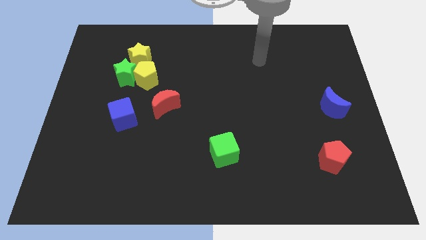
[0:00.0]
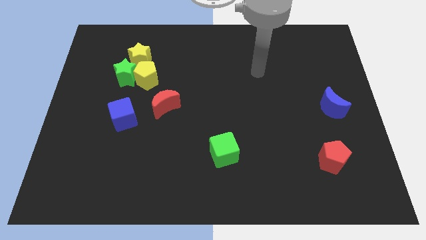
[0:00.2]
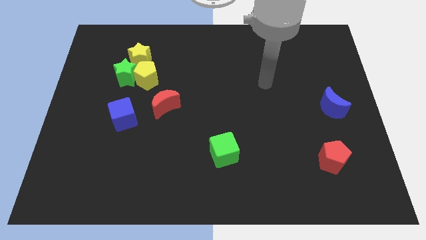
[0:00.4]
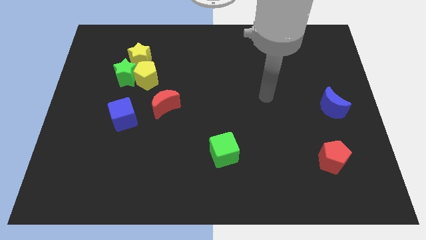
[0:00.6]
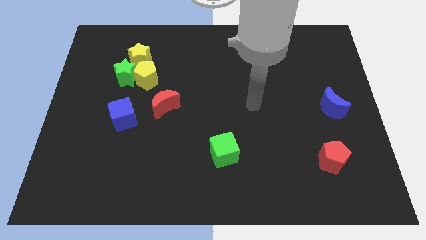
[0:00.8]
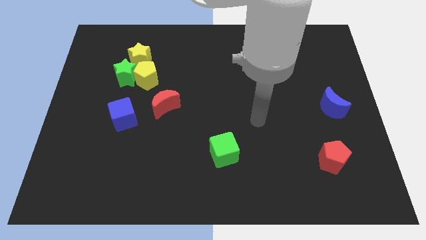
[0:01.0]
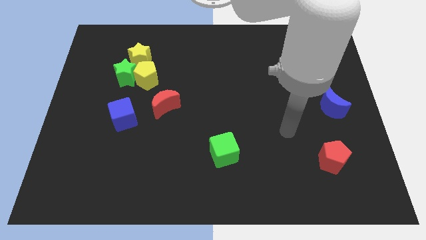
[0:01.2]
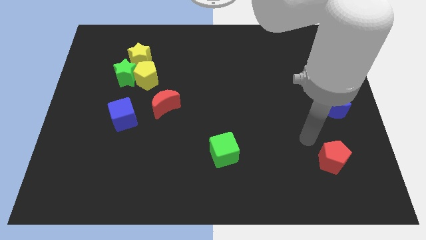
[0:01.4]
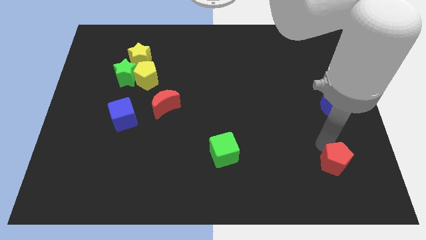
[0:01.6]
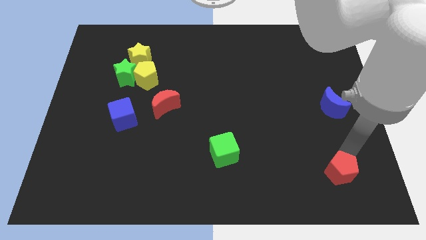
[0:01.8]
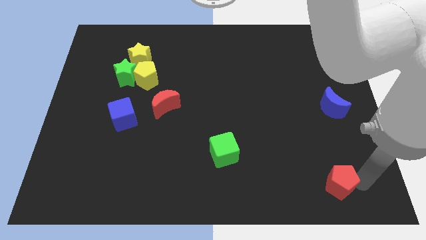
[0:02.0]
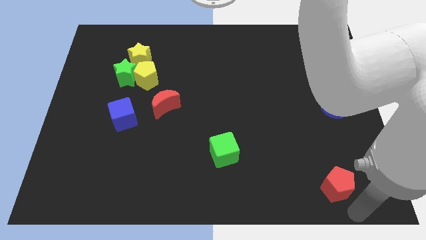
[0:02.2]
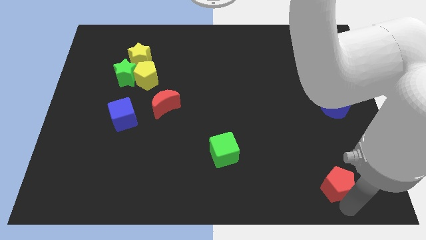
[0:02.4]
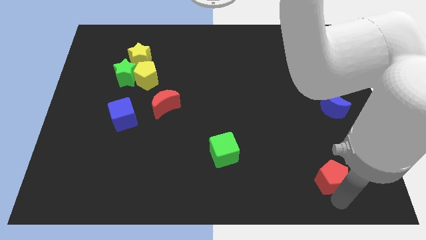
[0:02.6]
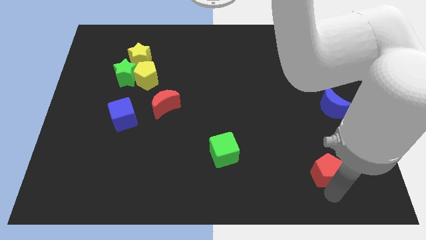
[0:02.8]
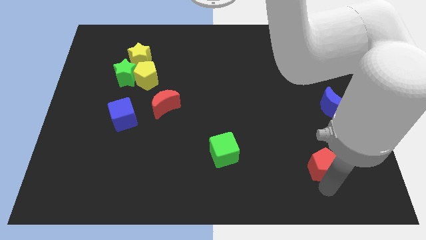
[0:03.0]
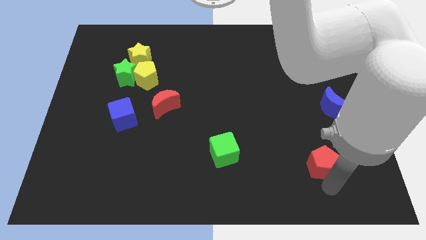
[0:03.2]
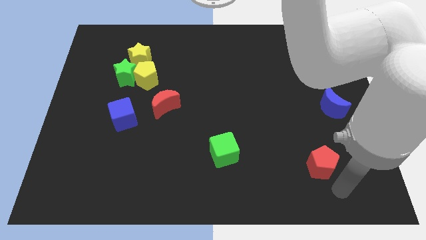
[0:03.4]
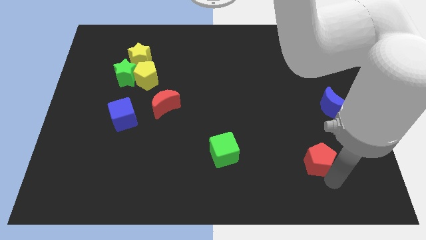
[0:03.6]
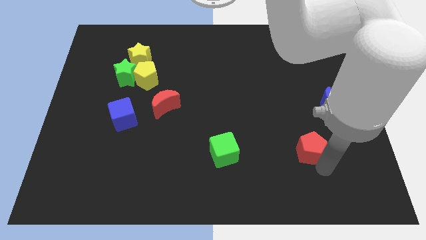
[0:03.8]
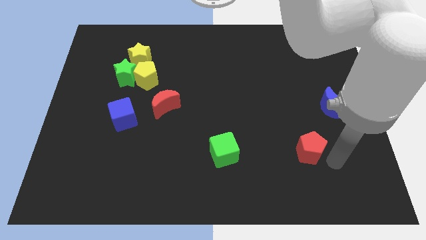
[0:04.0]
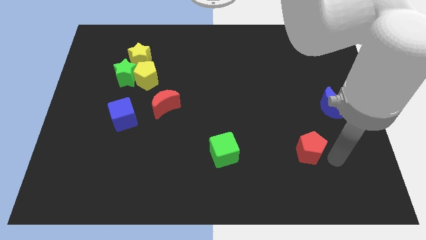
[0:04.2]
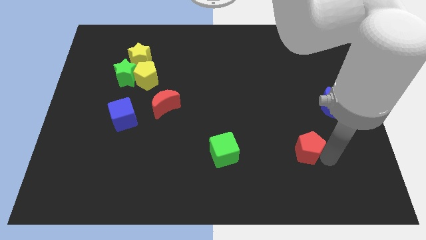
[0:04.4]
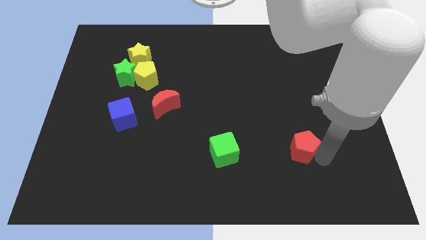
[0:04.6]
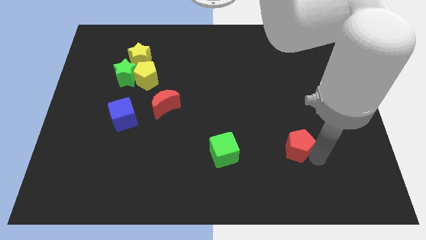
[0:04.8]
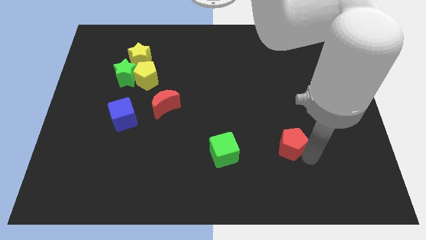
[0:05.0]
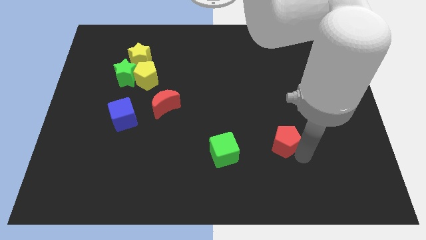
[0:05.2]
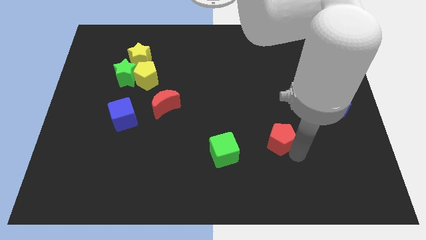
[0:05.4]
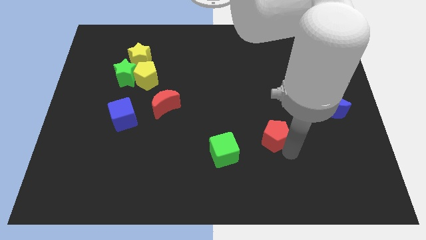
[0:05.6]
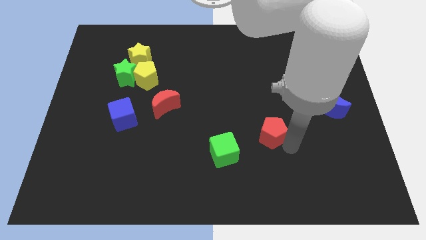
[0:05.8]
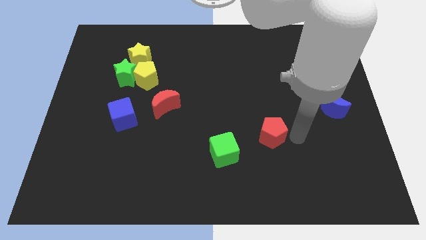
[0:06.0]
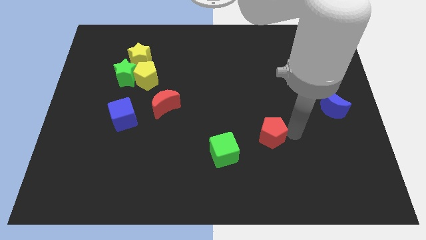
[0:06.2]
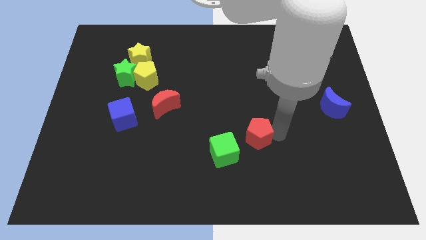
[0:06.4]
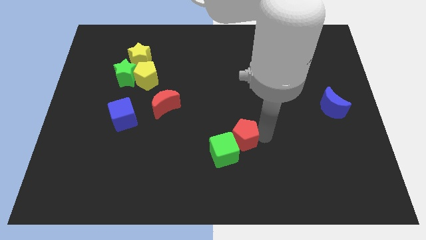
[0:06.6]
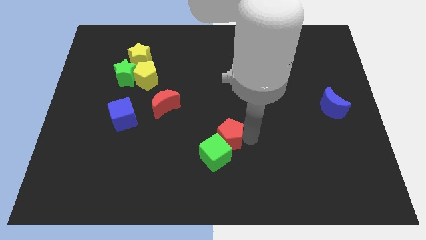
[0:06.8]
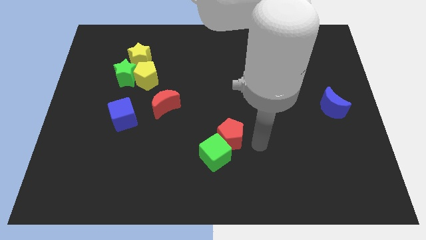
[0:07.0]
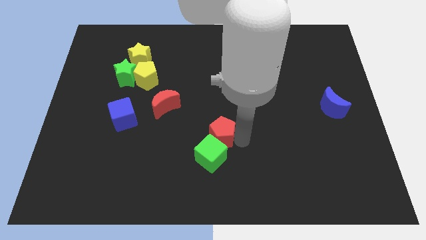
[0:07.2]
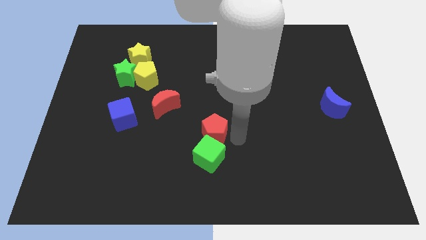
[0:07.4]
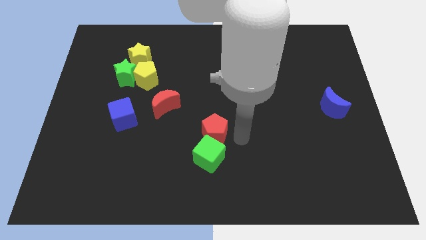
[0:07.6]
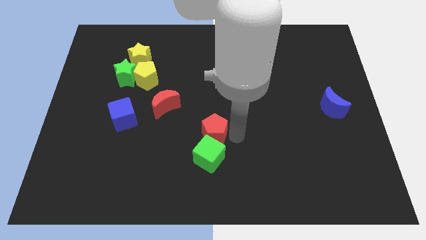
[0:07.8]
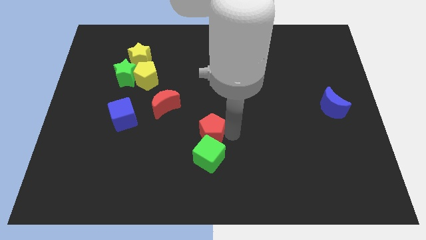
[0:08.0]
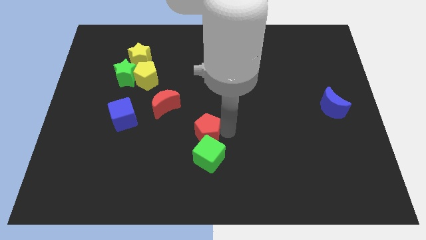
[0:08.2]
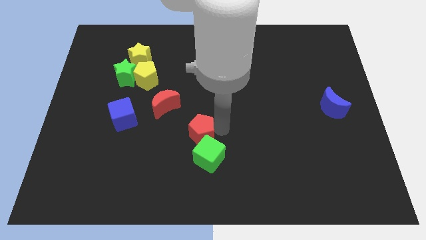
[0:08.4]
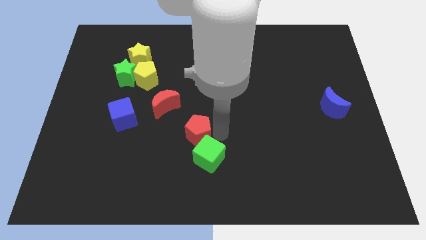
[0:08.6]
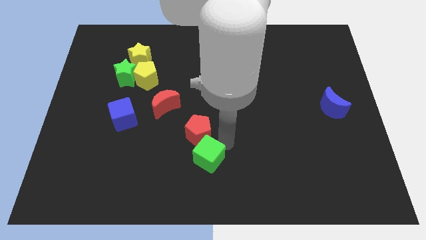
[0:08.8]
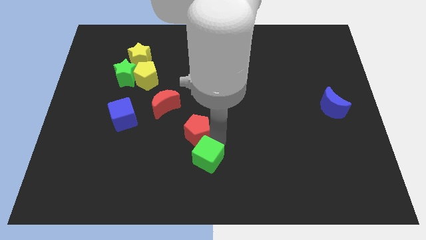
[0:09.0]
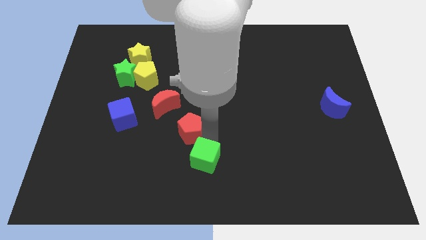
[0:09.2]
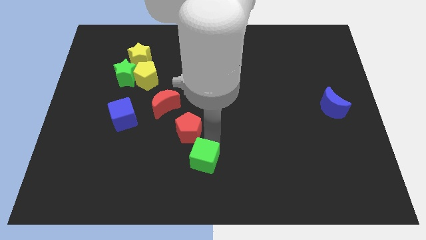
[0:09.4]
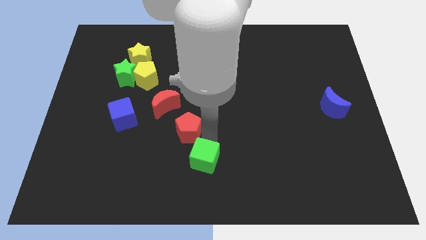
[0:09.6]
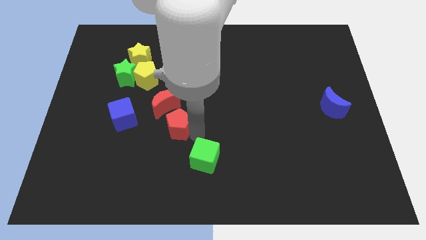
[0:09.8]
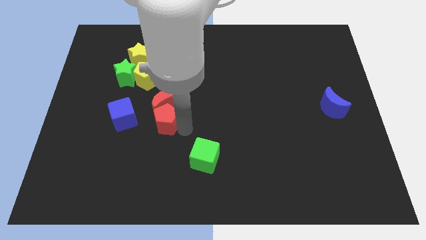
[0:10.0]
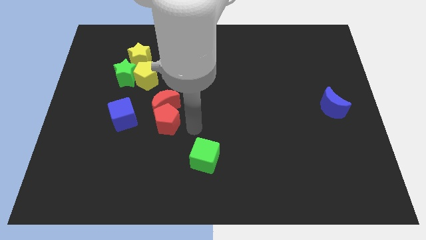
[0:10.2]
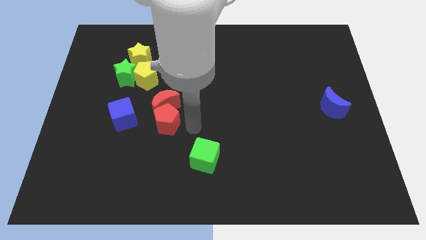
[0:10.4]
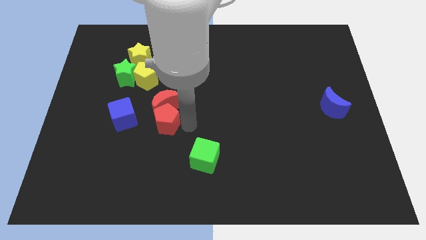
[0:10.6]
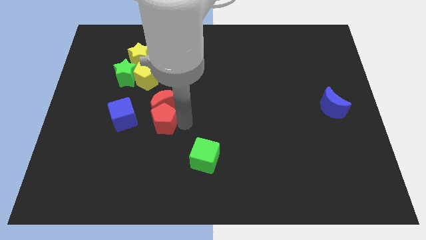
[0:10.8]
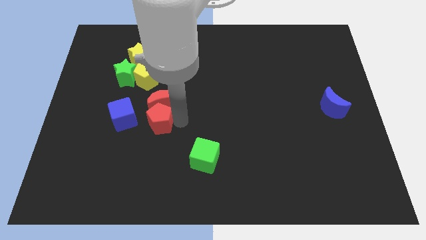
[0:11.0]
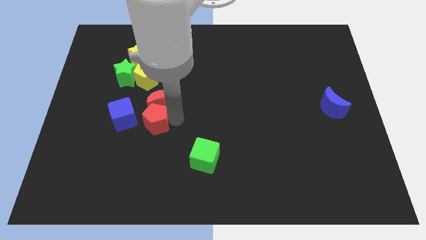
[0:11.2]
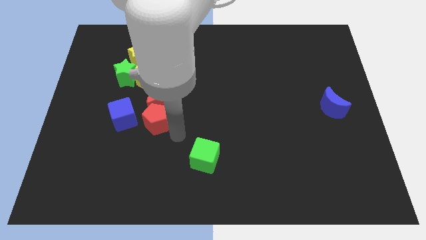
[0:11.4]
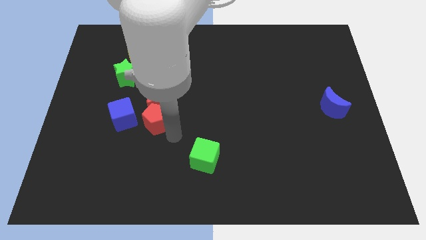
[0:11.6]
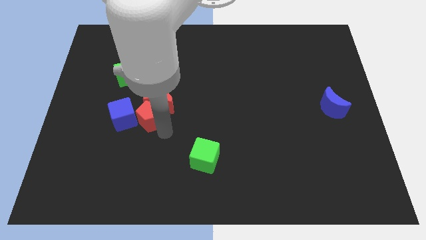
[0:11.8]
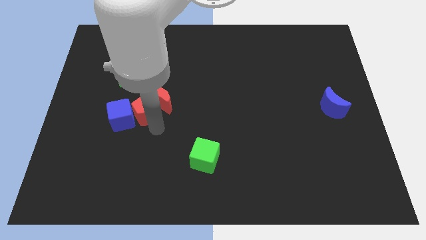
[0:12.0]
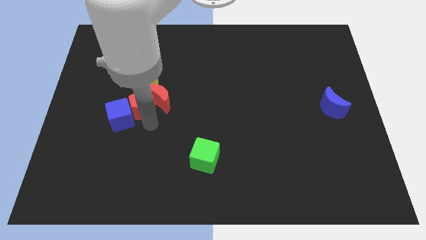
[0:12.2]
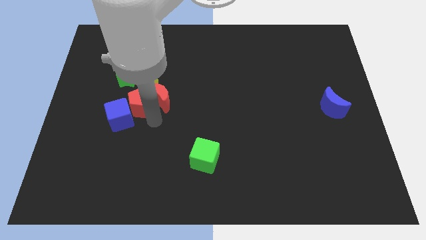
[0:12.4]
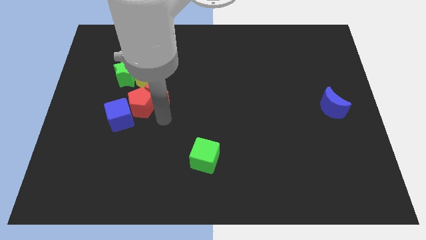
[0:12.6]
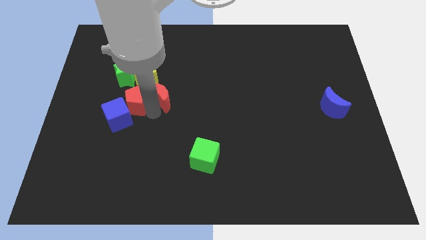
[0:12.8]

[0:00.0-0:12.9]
slide the red pentagon diagonally down and to the left of the yellow pentagon

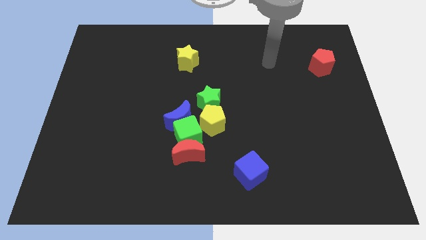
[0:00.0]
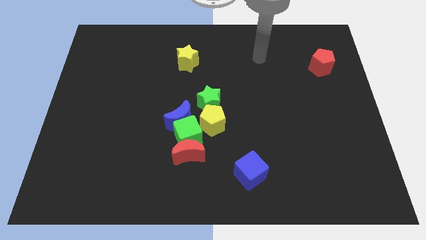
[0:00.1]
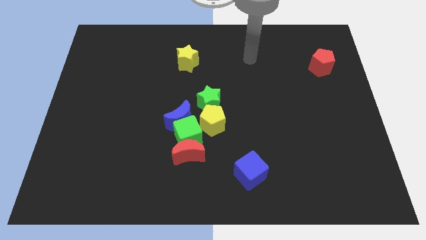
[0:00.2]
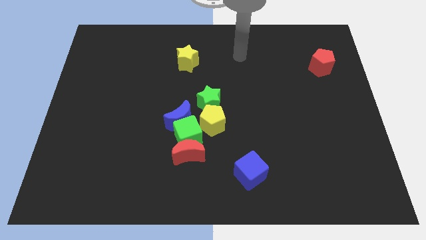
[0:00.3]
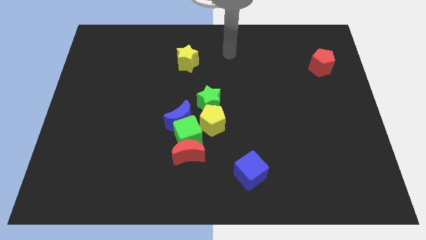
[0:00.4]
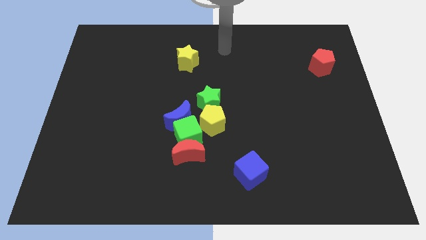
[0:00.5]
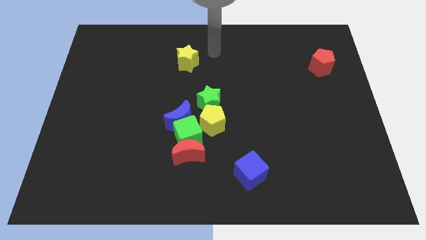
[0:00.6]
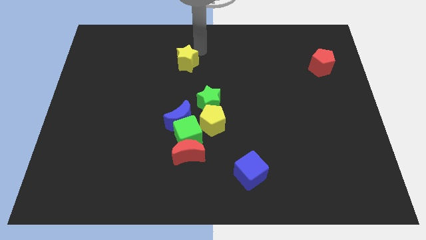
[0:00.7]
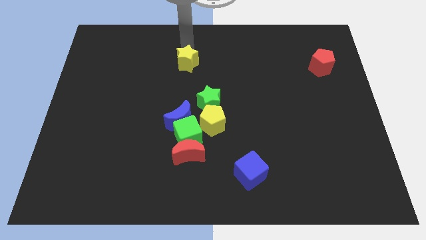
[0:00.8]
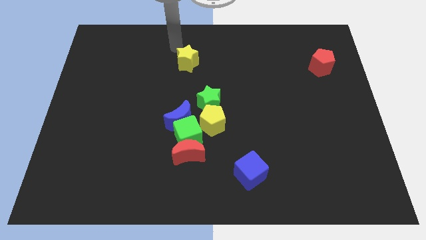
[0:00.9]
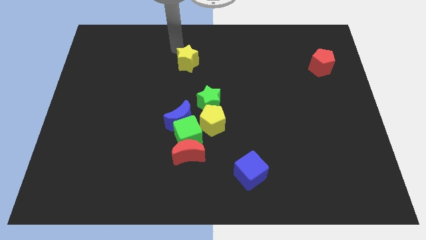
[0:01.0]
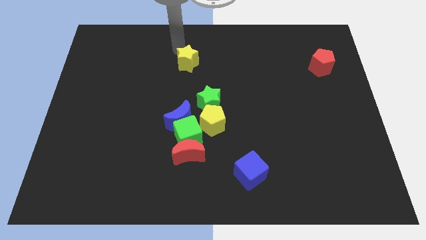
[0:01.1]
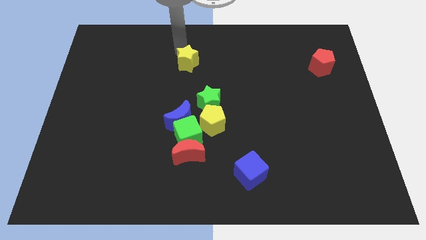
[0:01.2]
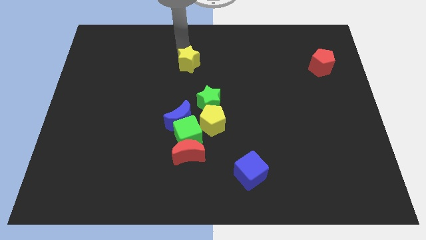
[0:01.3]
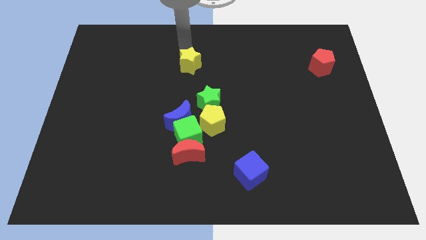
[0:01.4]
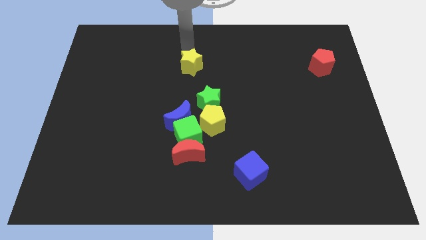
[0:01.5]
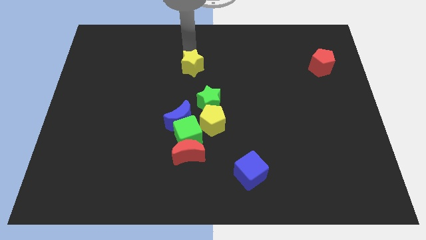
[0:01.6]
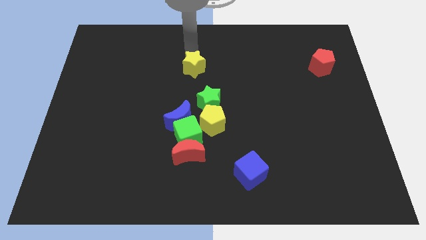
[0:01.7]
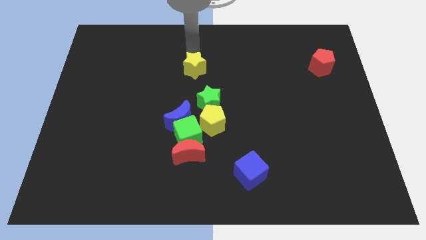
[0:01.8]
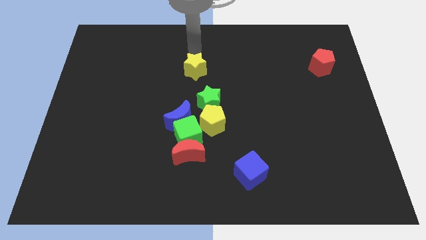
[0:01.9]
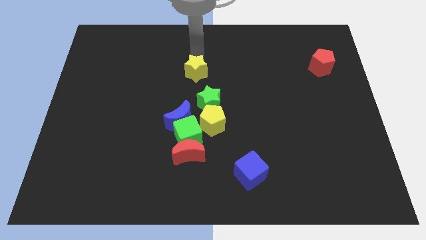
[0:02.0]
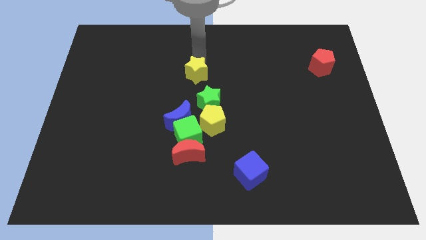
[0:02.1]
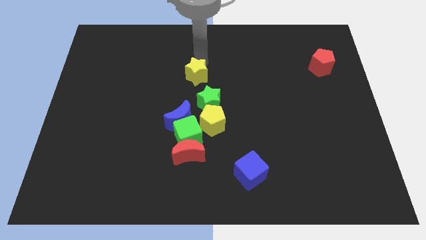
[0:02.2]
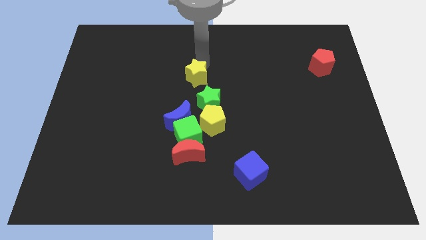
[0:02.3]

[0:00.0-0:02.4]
slide the yellow star to the top side of the yellow pentagon
